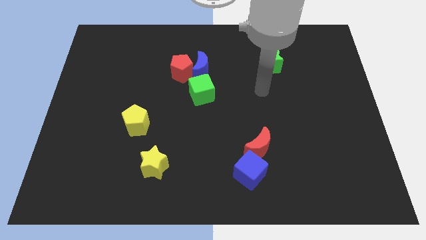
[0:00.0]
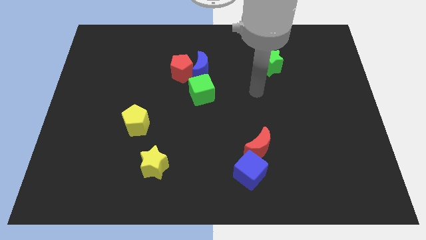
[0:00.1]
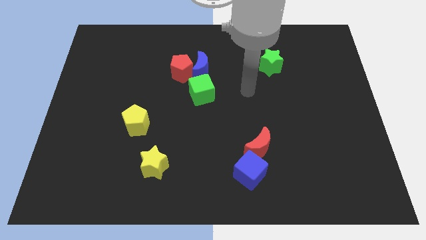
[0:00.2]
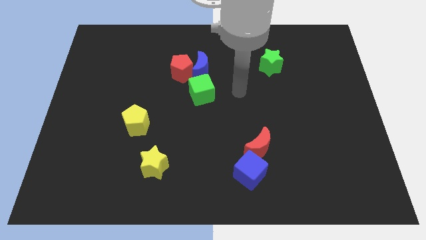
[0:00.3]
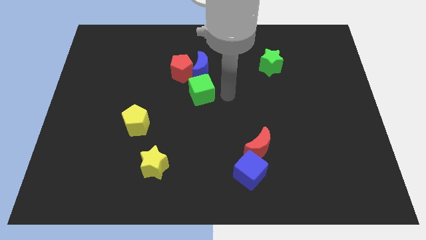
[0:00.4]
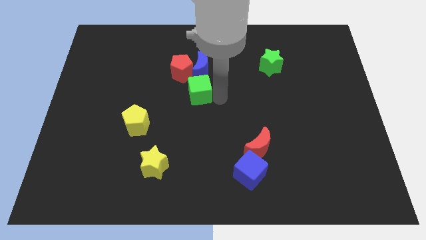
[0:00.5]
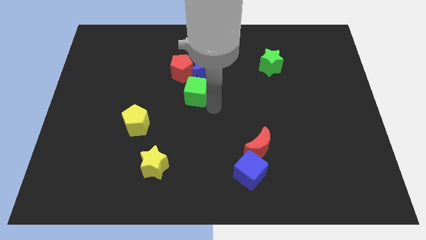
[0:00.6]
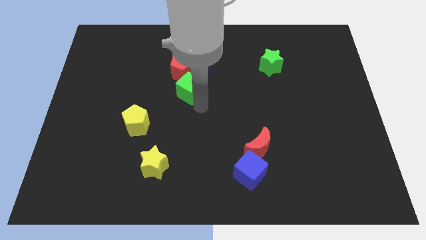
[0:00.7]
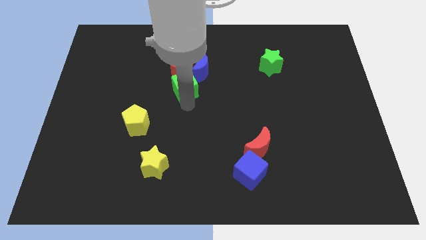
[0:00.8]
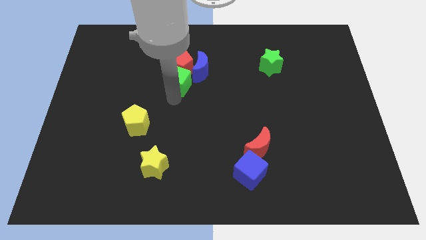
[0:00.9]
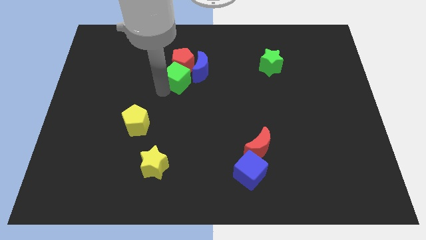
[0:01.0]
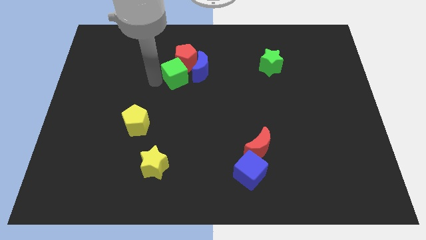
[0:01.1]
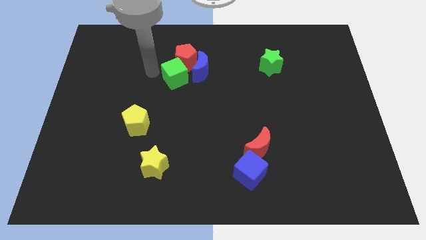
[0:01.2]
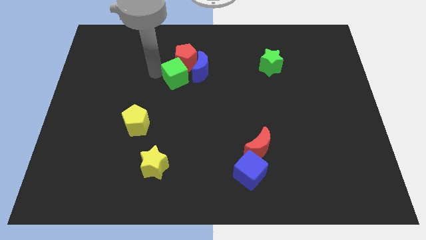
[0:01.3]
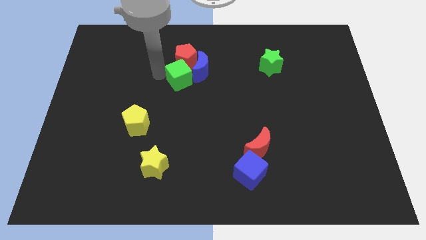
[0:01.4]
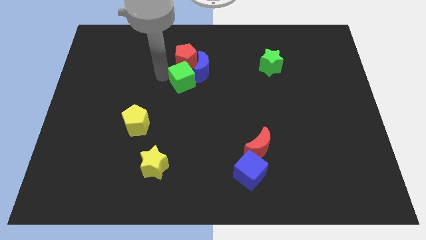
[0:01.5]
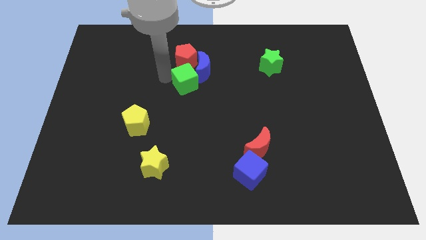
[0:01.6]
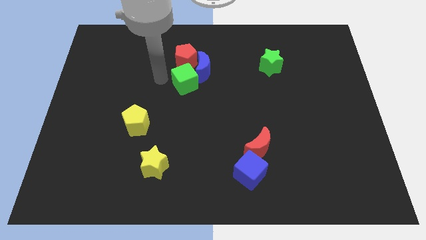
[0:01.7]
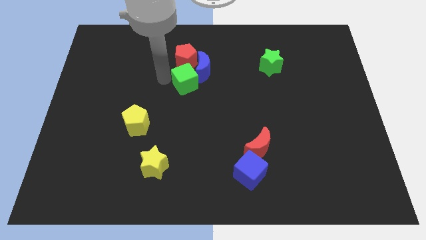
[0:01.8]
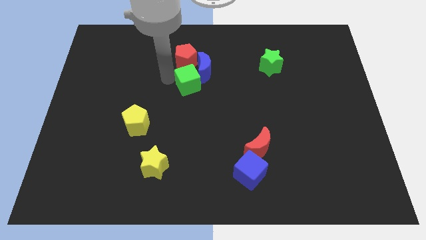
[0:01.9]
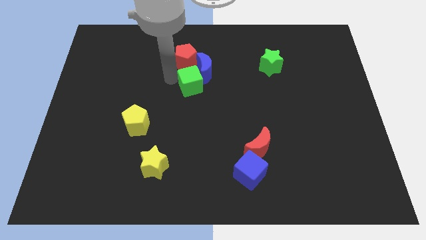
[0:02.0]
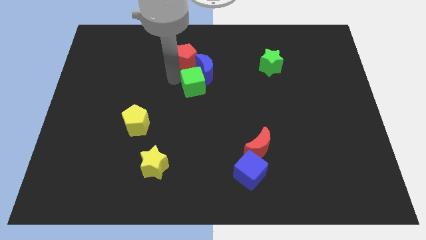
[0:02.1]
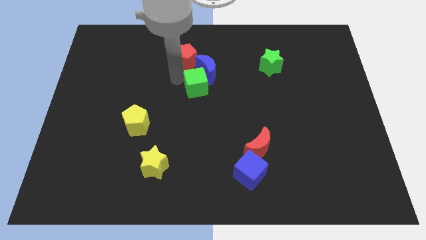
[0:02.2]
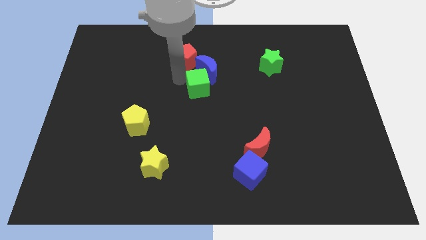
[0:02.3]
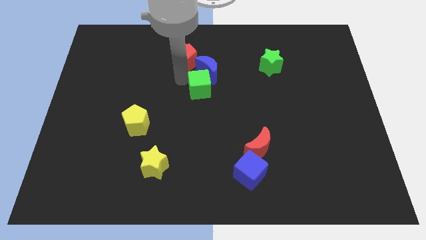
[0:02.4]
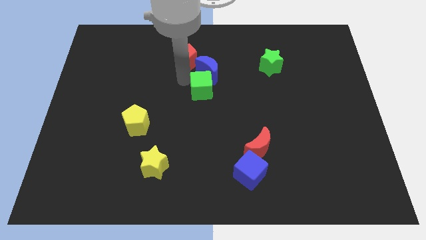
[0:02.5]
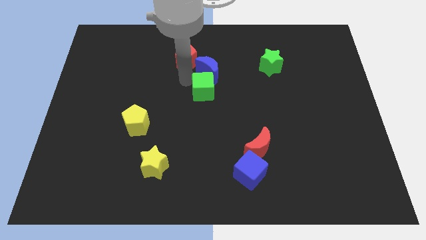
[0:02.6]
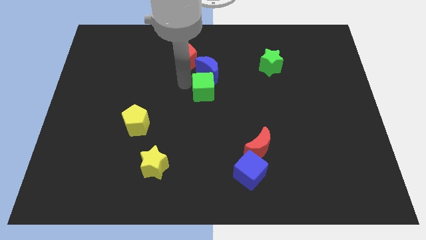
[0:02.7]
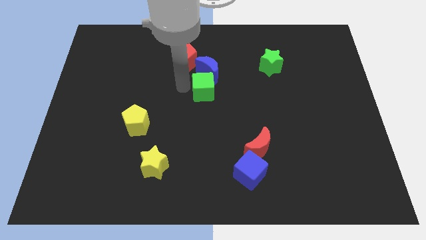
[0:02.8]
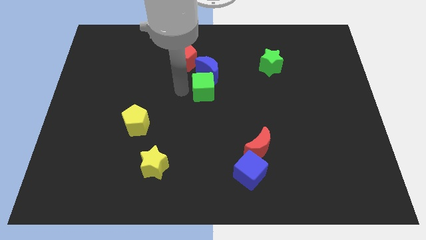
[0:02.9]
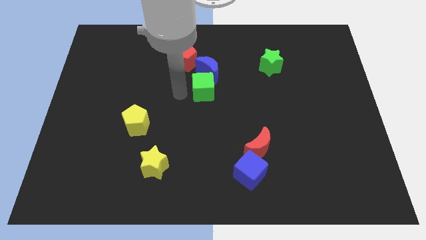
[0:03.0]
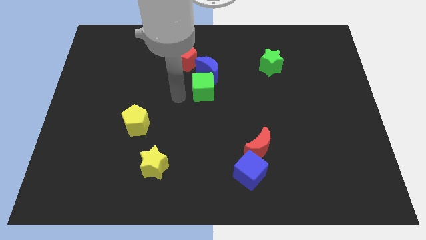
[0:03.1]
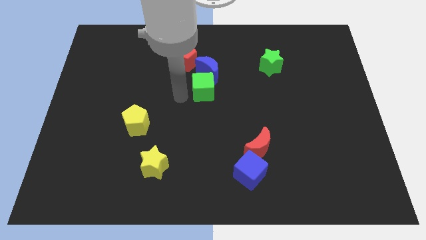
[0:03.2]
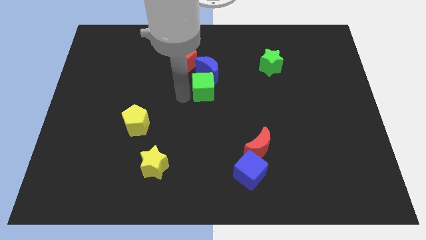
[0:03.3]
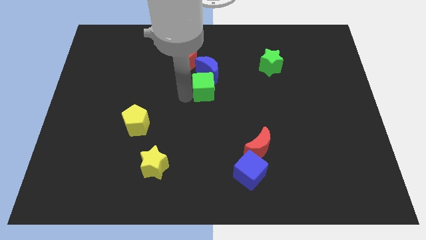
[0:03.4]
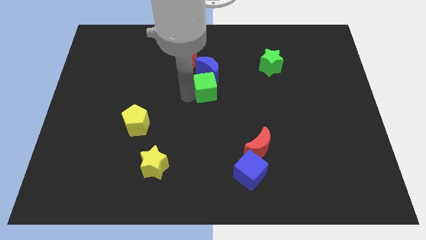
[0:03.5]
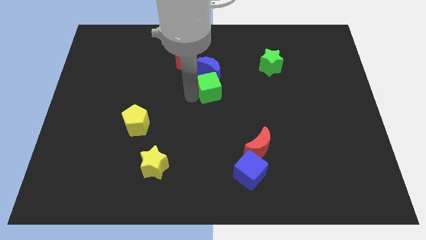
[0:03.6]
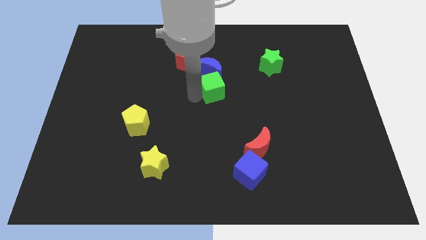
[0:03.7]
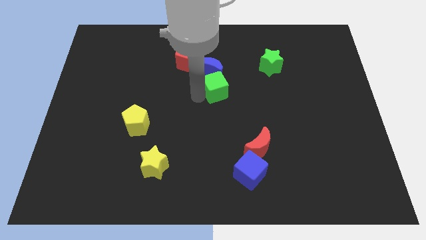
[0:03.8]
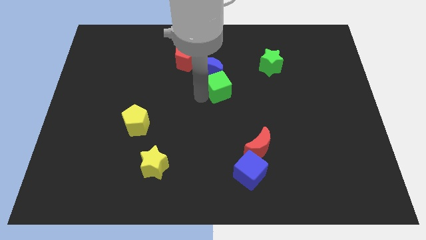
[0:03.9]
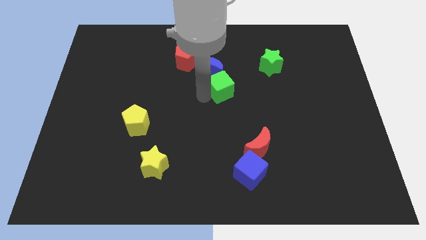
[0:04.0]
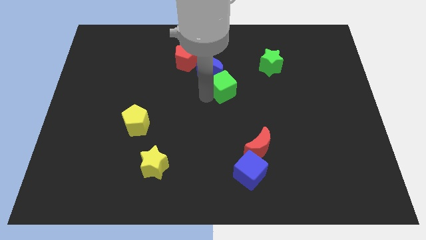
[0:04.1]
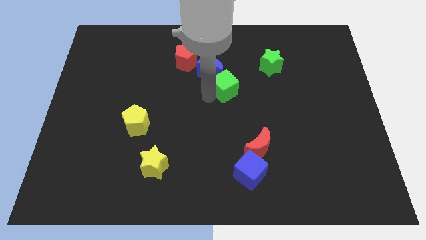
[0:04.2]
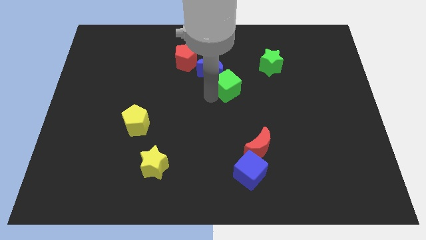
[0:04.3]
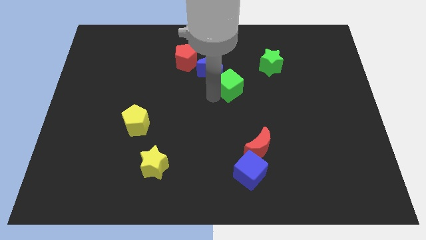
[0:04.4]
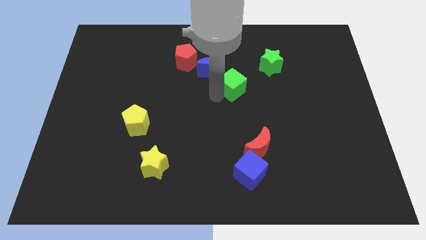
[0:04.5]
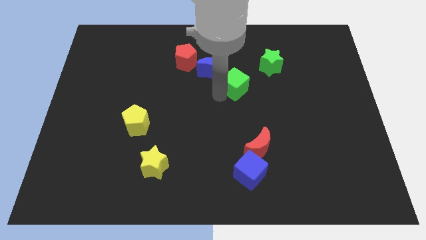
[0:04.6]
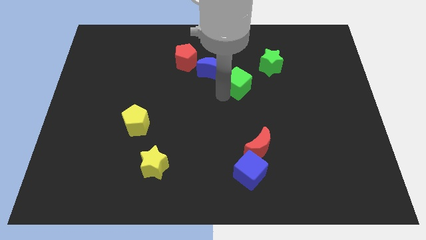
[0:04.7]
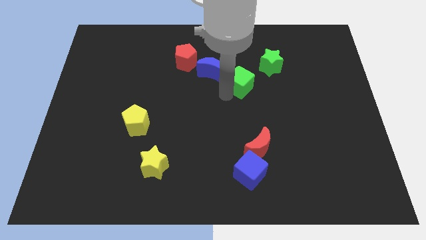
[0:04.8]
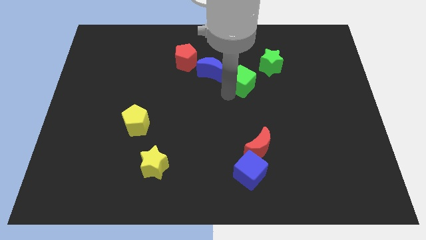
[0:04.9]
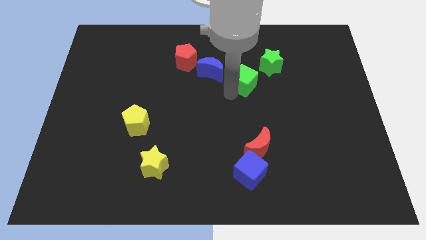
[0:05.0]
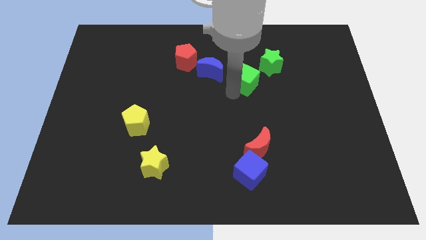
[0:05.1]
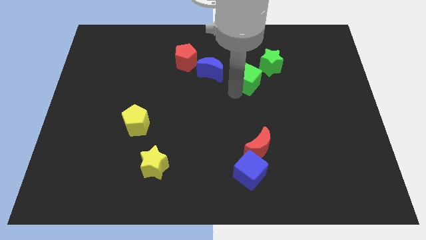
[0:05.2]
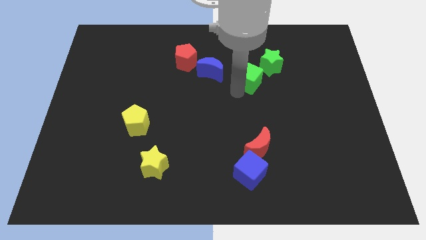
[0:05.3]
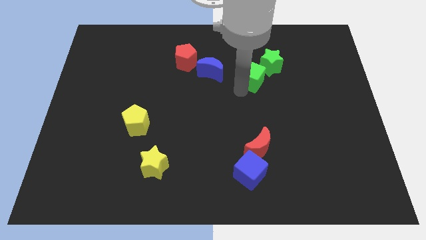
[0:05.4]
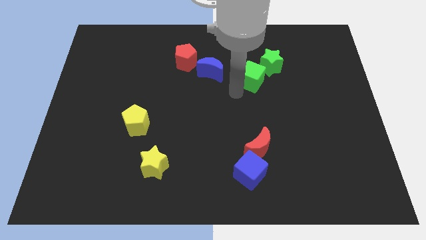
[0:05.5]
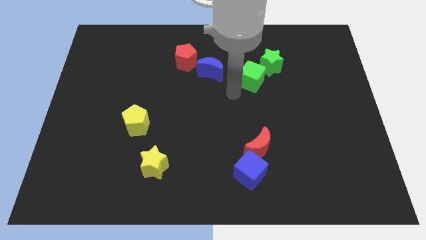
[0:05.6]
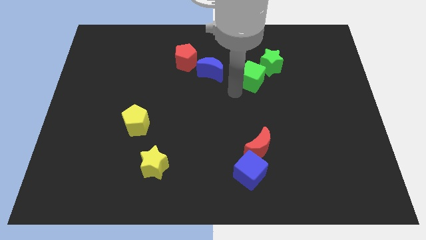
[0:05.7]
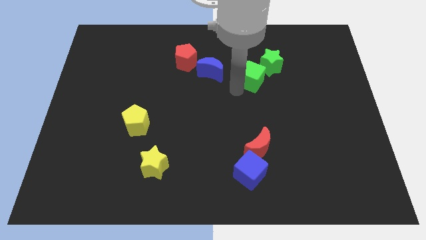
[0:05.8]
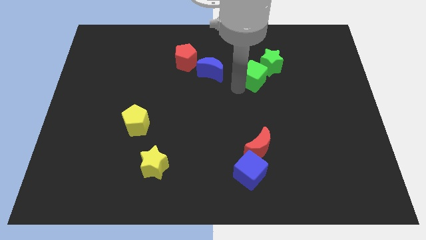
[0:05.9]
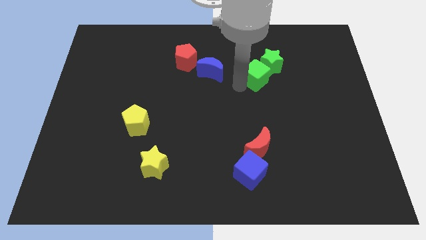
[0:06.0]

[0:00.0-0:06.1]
push the green cube close to the green star

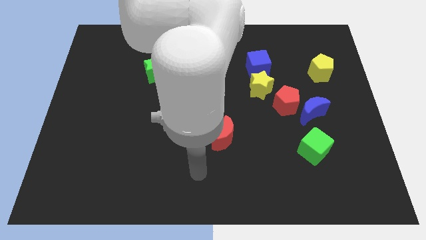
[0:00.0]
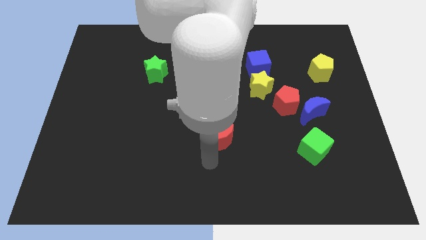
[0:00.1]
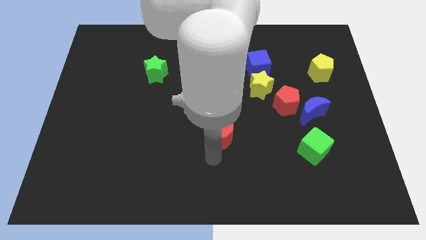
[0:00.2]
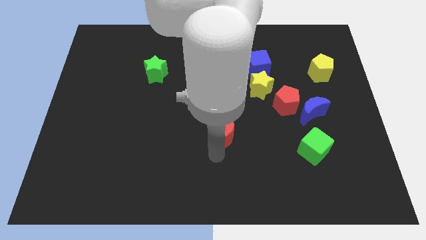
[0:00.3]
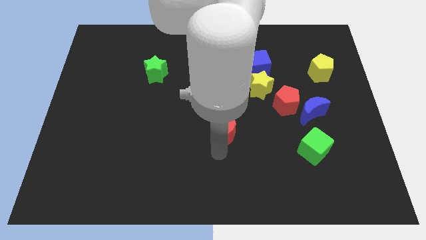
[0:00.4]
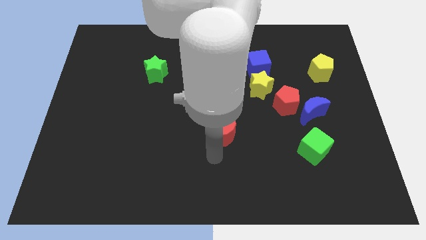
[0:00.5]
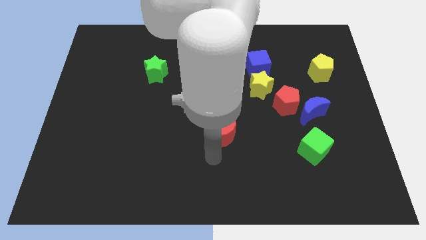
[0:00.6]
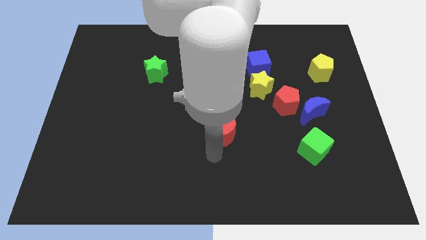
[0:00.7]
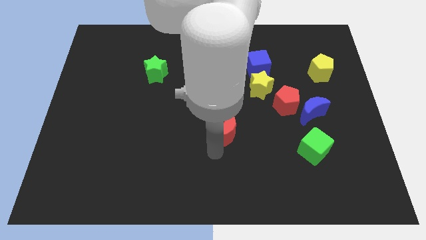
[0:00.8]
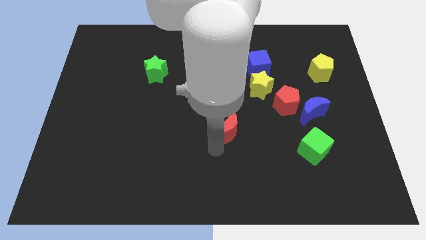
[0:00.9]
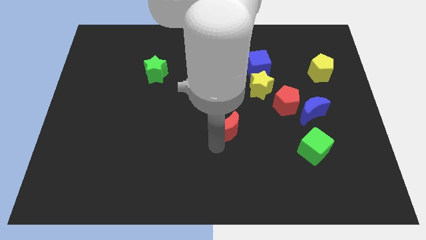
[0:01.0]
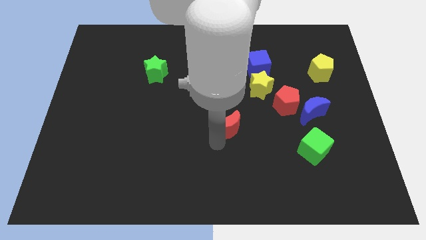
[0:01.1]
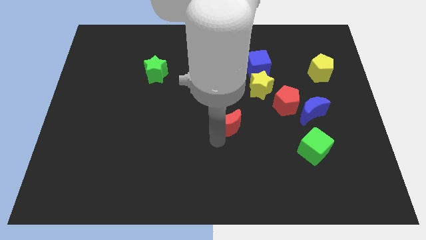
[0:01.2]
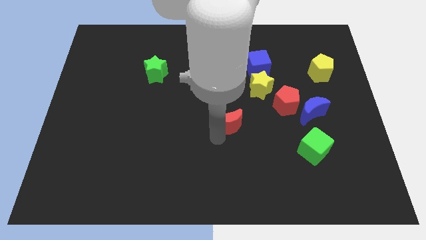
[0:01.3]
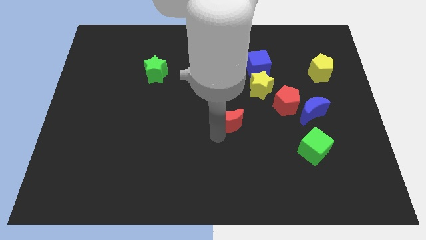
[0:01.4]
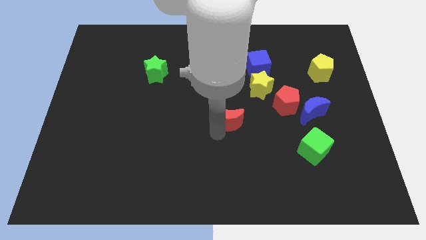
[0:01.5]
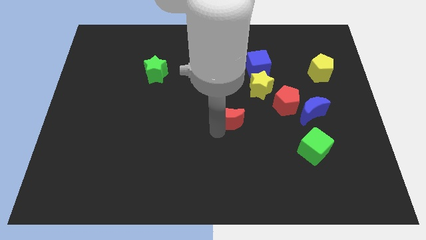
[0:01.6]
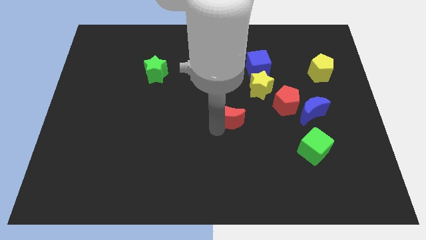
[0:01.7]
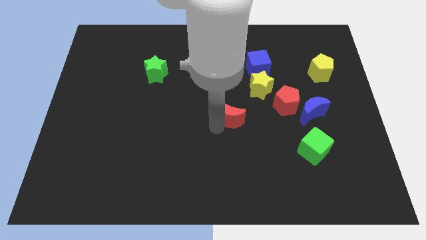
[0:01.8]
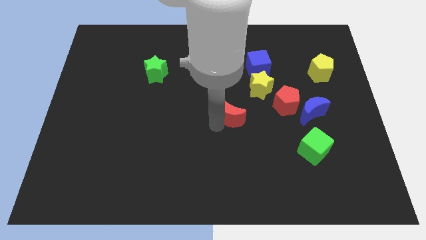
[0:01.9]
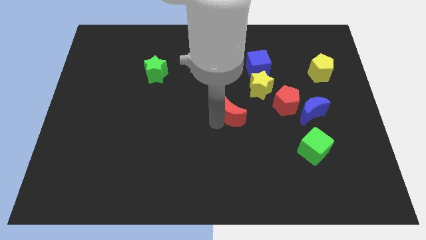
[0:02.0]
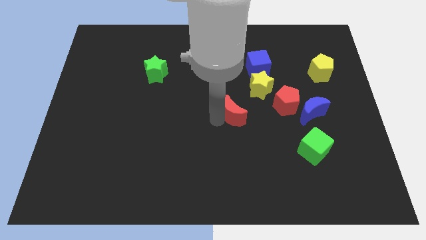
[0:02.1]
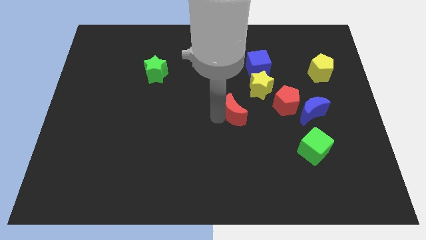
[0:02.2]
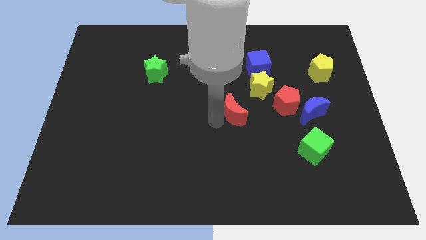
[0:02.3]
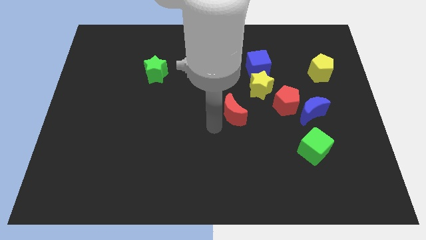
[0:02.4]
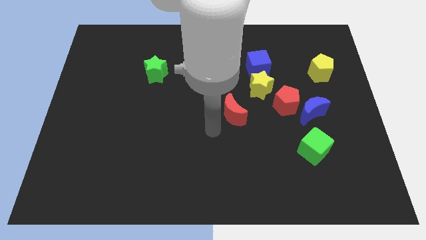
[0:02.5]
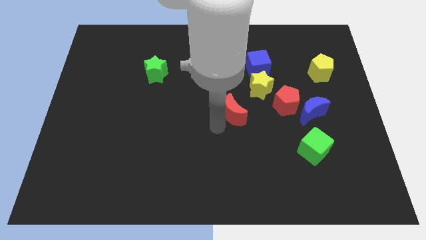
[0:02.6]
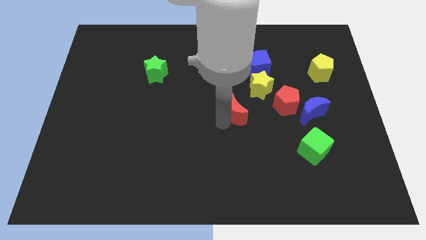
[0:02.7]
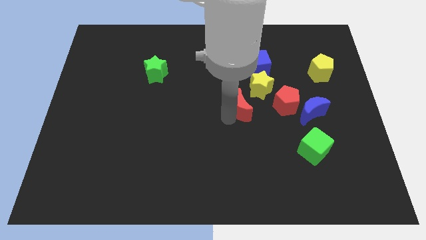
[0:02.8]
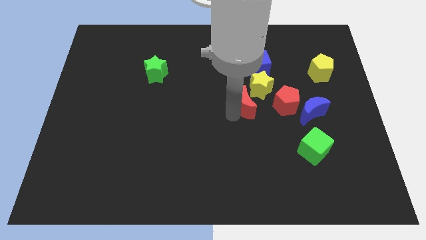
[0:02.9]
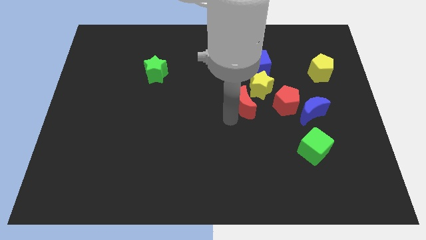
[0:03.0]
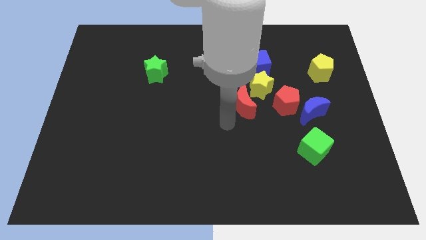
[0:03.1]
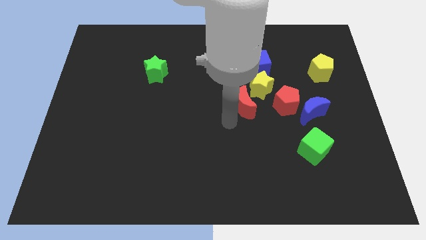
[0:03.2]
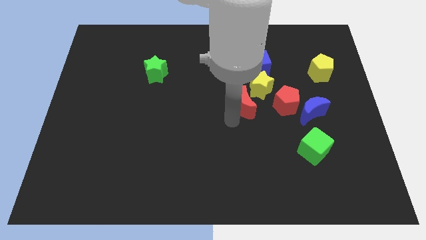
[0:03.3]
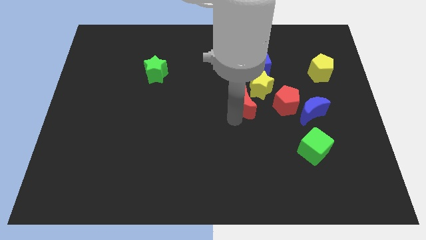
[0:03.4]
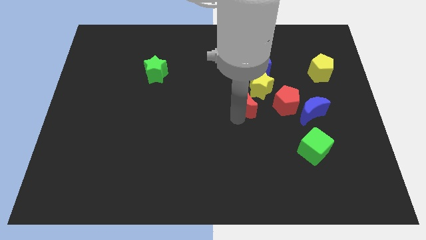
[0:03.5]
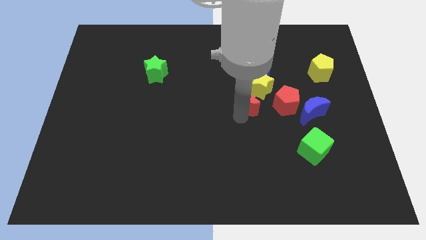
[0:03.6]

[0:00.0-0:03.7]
move the red moon next to the yellow star
